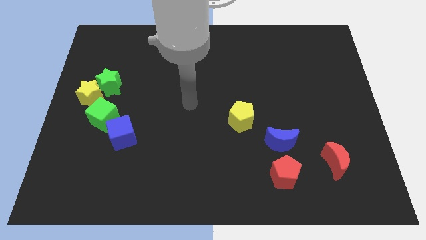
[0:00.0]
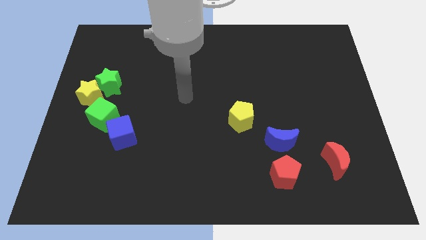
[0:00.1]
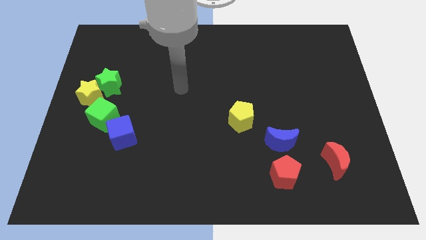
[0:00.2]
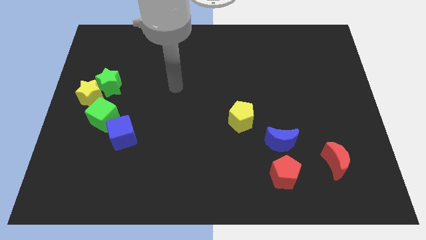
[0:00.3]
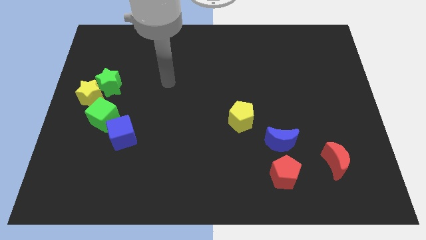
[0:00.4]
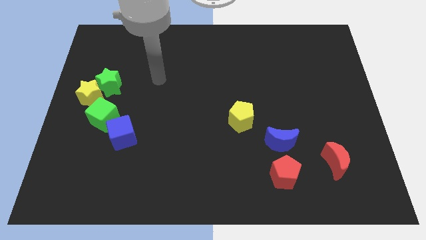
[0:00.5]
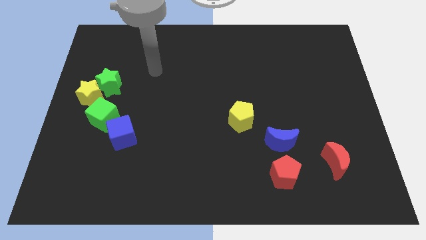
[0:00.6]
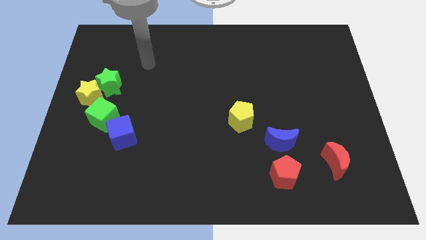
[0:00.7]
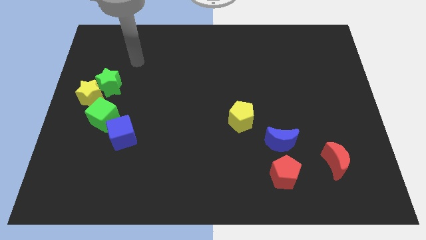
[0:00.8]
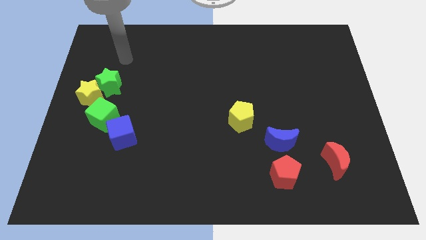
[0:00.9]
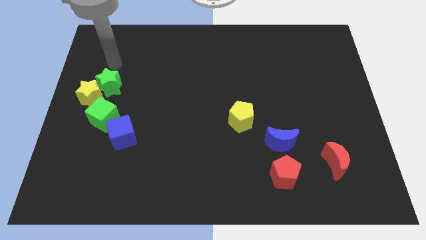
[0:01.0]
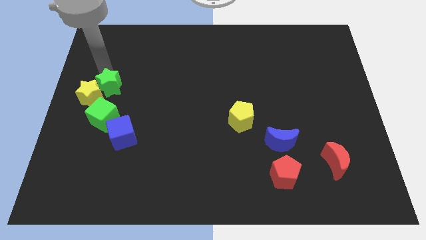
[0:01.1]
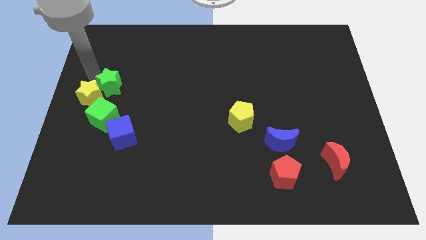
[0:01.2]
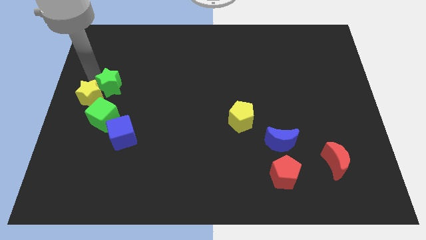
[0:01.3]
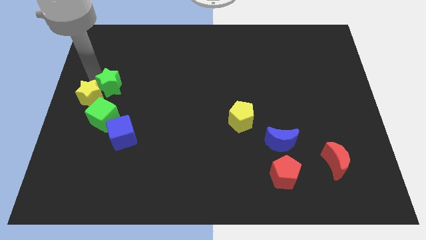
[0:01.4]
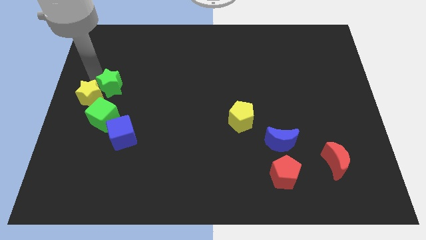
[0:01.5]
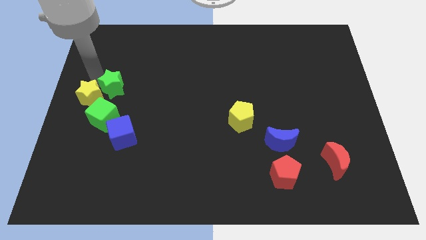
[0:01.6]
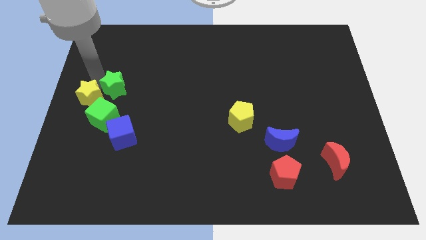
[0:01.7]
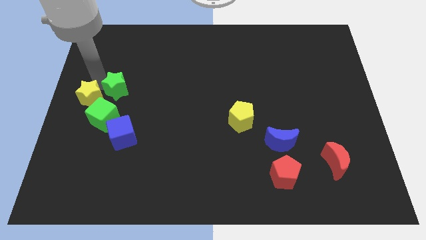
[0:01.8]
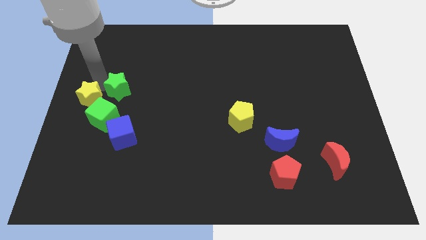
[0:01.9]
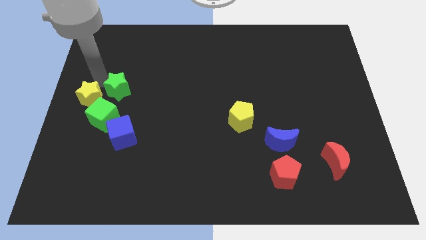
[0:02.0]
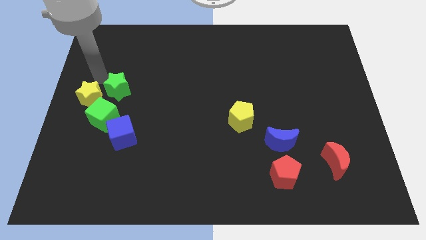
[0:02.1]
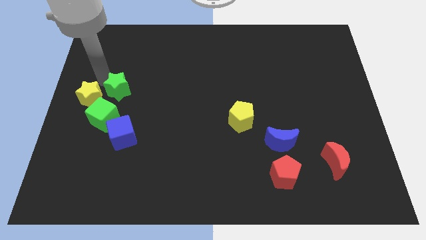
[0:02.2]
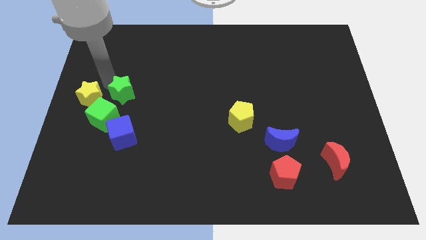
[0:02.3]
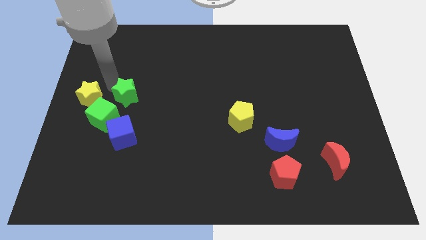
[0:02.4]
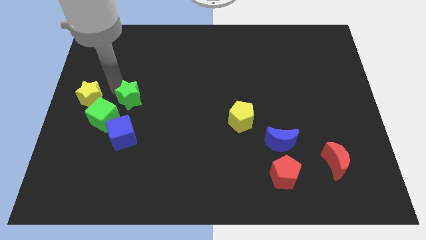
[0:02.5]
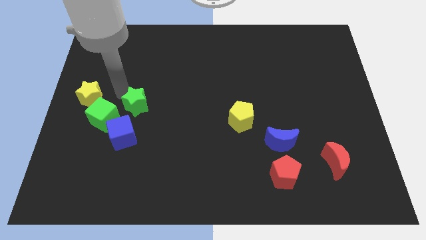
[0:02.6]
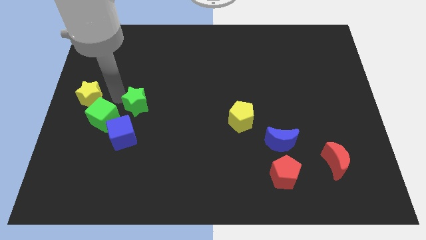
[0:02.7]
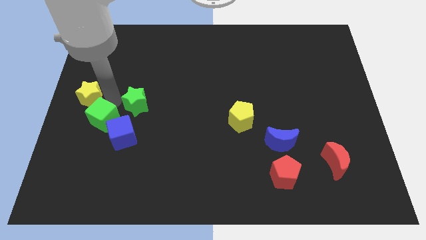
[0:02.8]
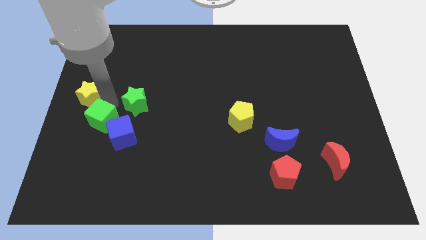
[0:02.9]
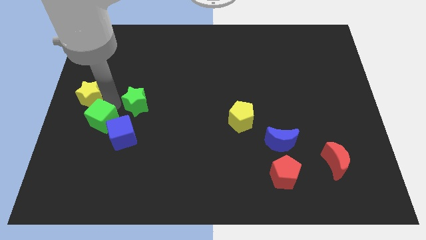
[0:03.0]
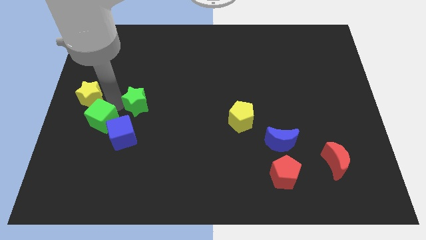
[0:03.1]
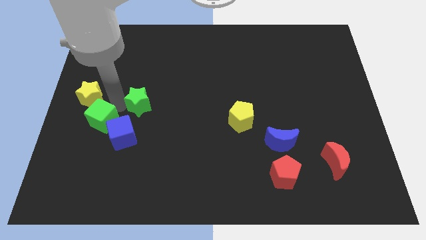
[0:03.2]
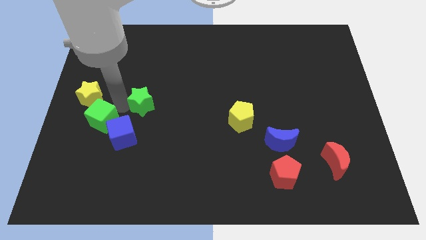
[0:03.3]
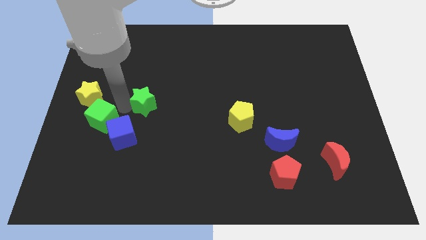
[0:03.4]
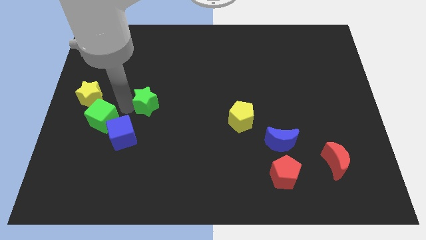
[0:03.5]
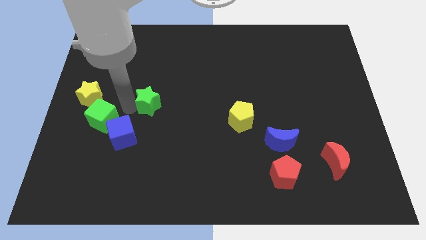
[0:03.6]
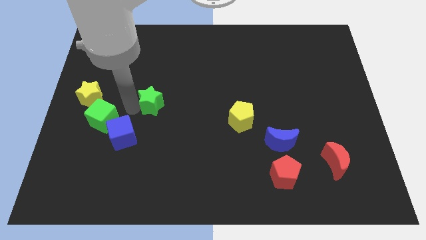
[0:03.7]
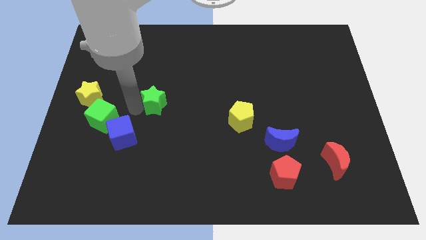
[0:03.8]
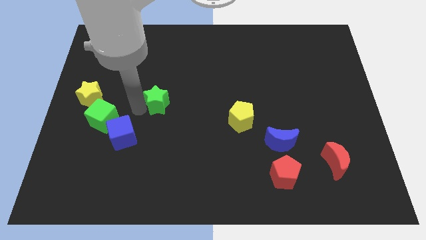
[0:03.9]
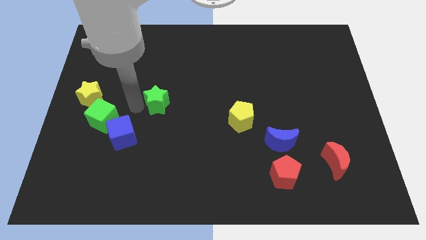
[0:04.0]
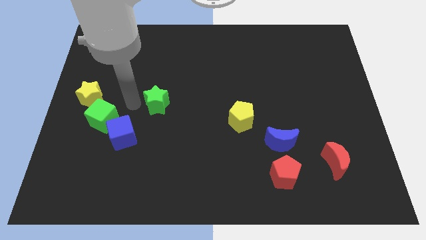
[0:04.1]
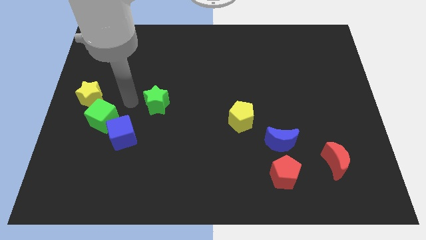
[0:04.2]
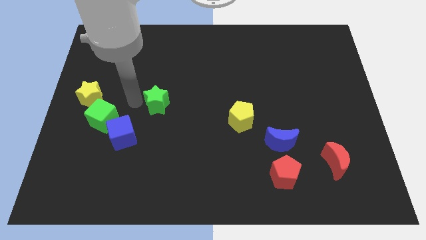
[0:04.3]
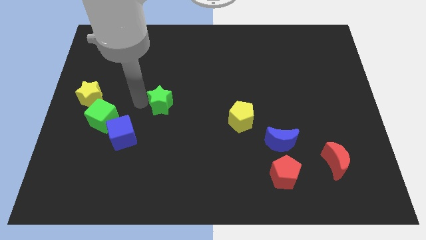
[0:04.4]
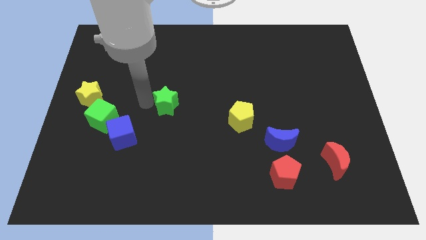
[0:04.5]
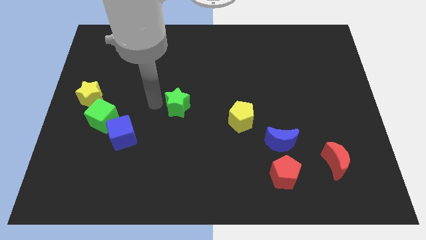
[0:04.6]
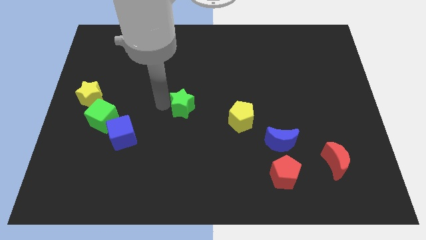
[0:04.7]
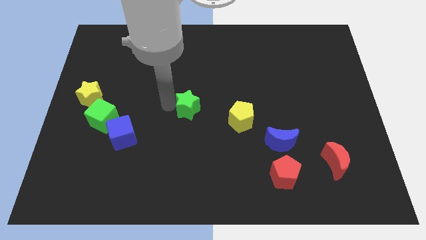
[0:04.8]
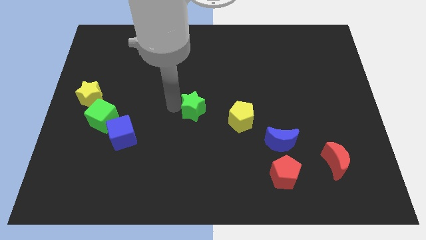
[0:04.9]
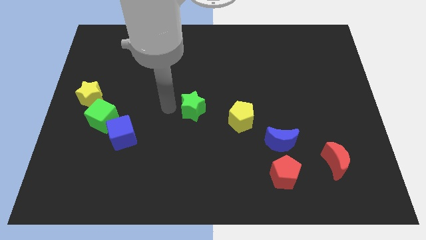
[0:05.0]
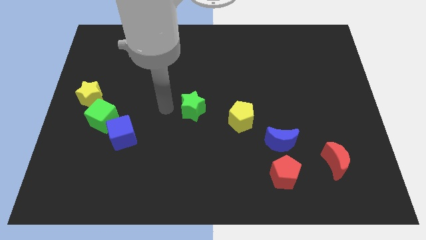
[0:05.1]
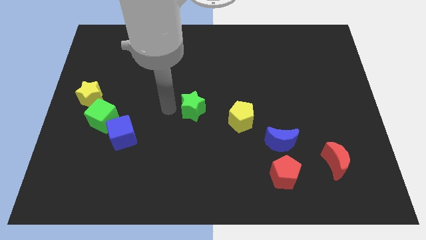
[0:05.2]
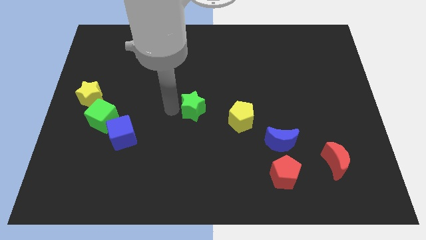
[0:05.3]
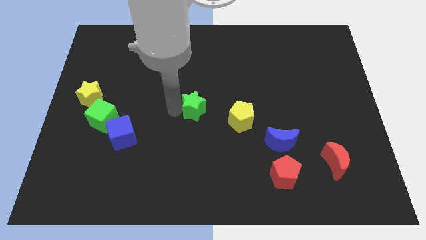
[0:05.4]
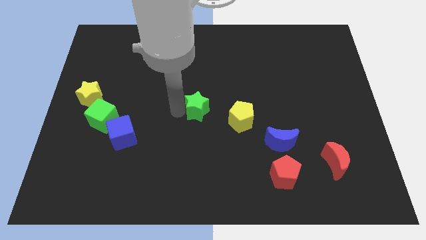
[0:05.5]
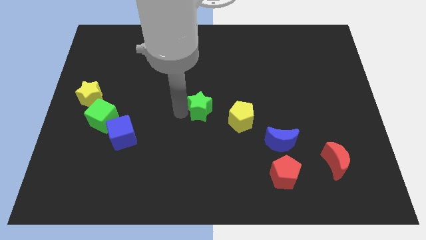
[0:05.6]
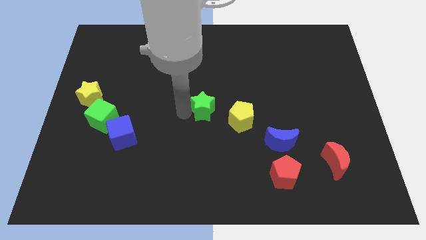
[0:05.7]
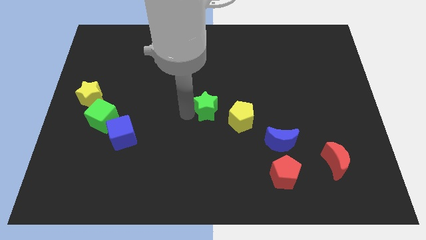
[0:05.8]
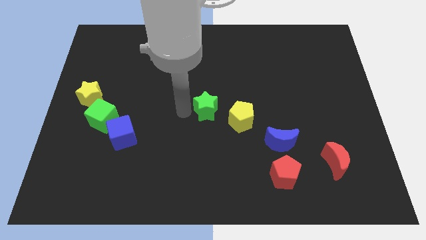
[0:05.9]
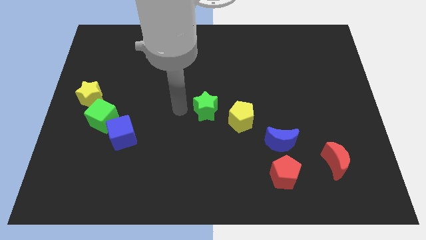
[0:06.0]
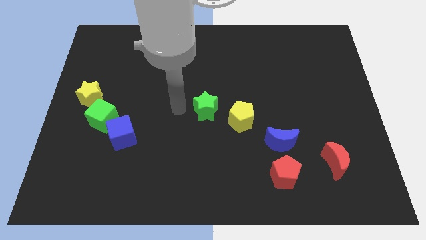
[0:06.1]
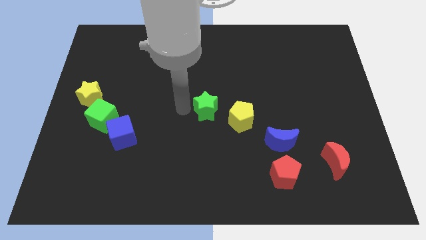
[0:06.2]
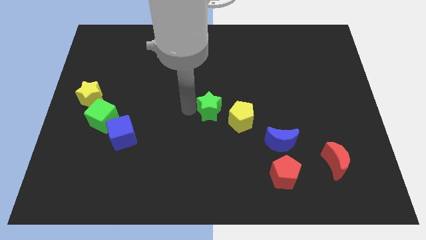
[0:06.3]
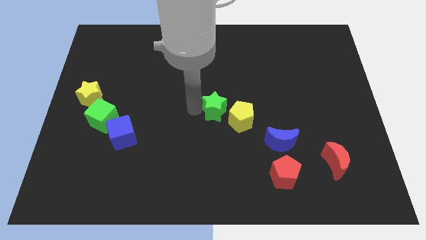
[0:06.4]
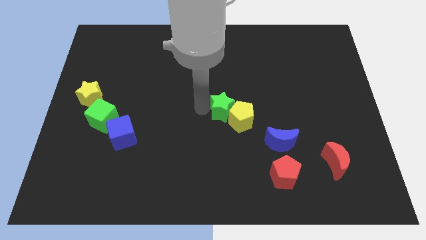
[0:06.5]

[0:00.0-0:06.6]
put the green star to the yellow pentagon
